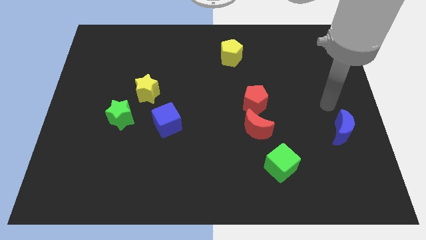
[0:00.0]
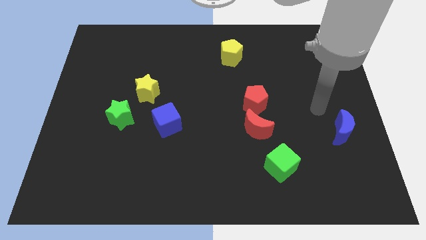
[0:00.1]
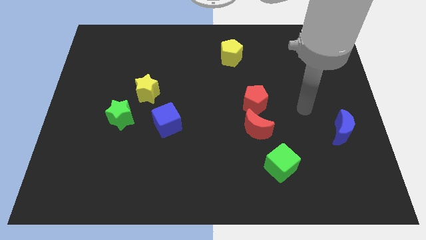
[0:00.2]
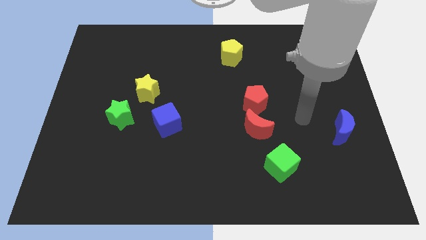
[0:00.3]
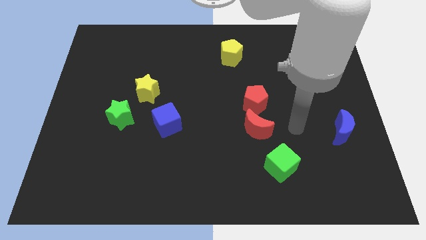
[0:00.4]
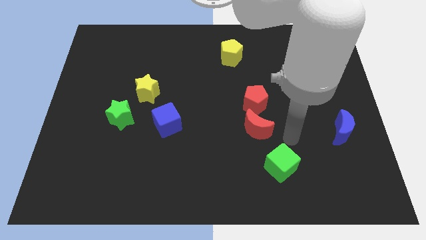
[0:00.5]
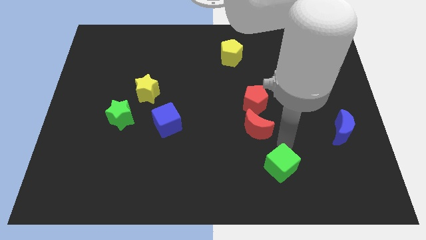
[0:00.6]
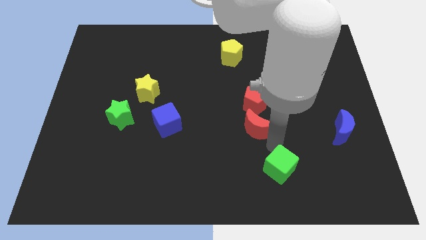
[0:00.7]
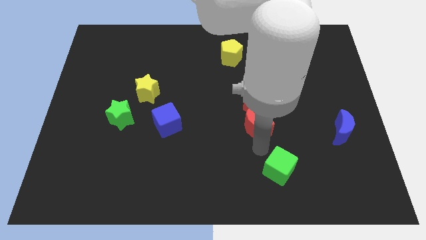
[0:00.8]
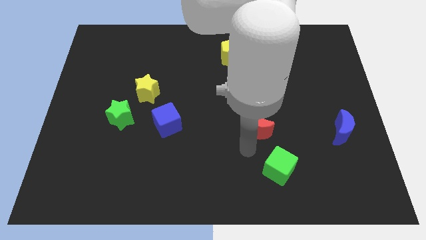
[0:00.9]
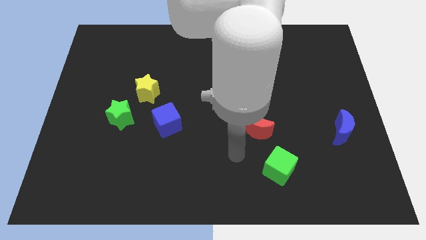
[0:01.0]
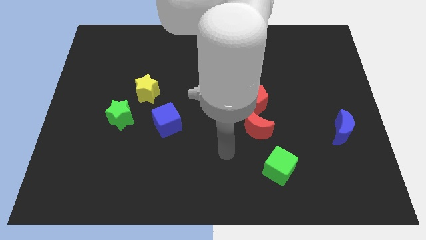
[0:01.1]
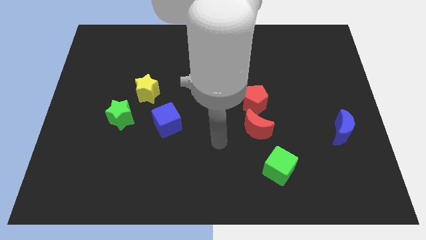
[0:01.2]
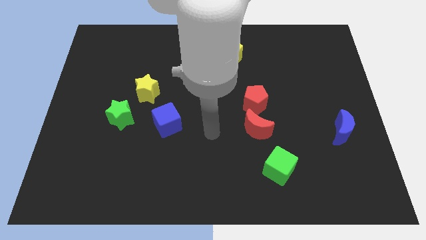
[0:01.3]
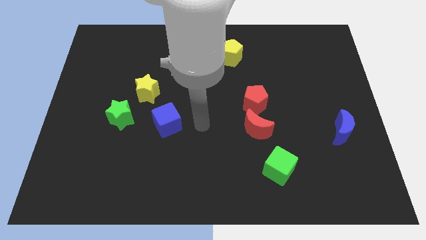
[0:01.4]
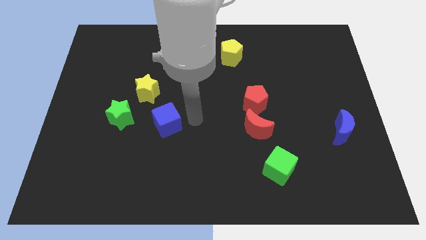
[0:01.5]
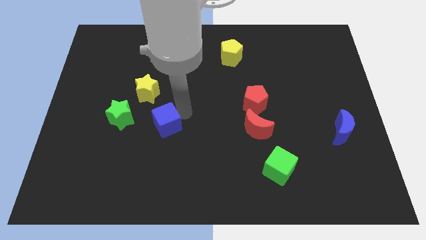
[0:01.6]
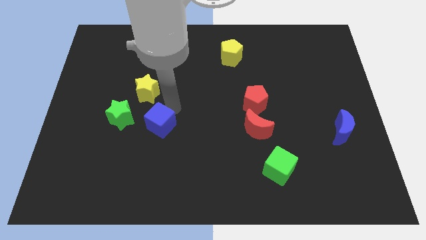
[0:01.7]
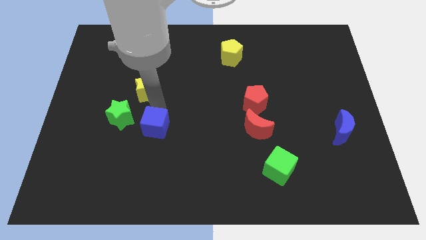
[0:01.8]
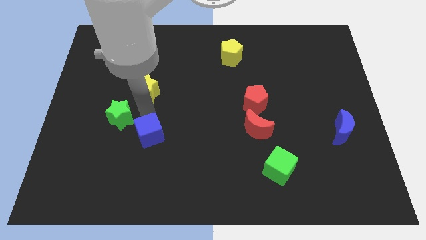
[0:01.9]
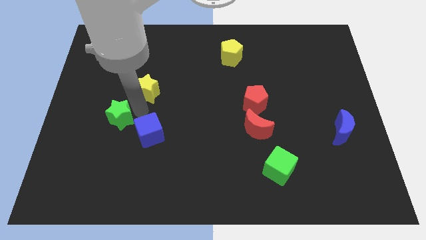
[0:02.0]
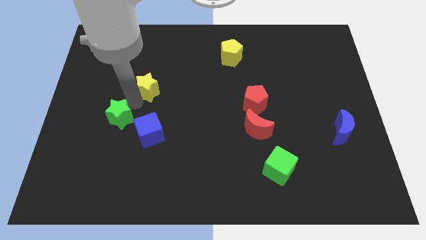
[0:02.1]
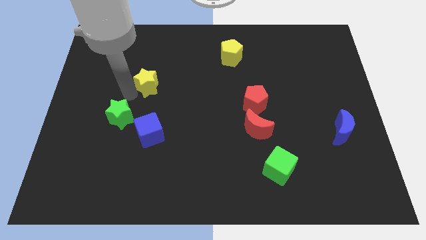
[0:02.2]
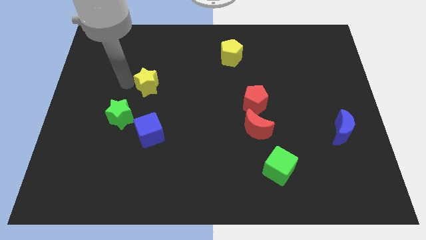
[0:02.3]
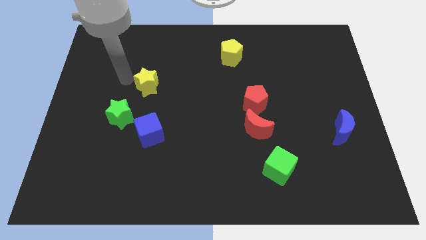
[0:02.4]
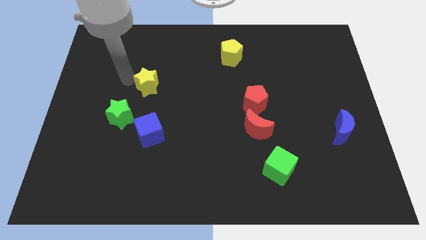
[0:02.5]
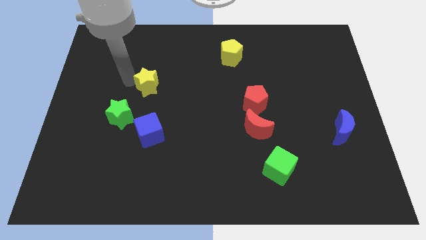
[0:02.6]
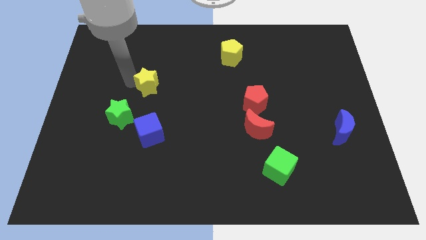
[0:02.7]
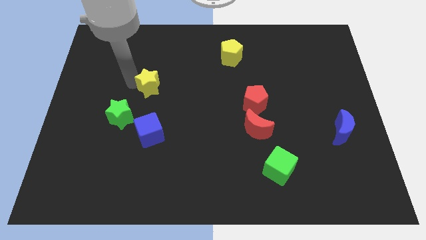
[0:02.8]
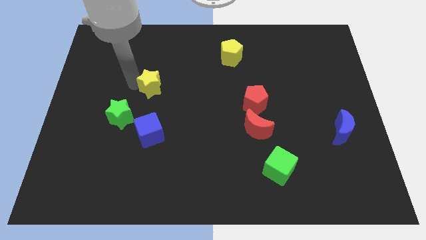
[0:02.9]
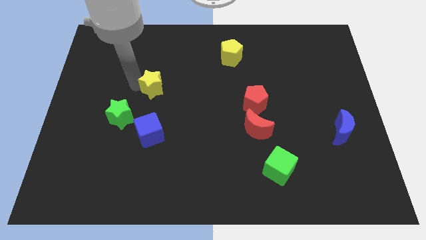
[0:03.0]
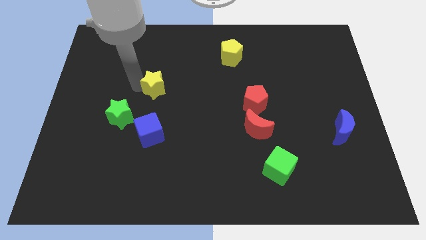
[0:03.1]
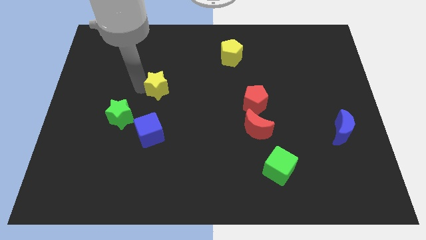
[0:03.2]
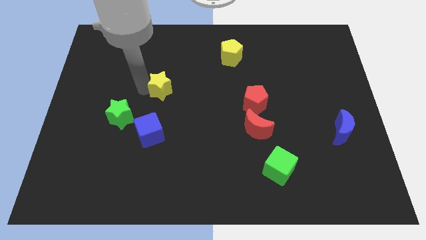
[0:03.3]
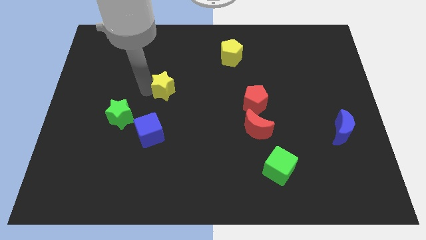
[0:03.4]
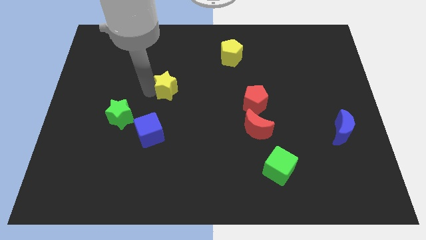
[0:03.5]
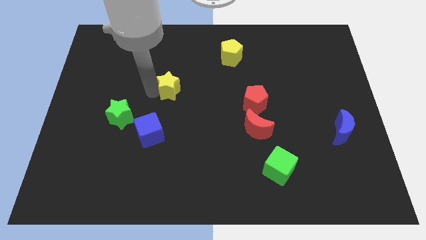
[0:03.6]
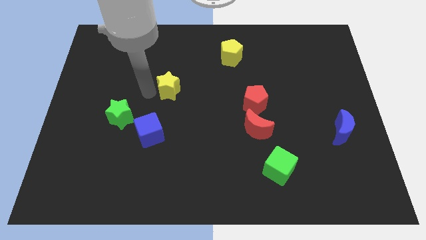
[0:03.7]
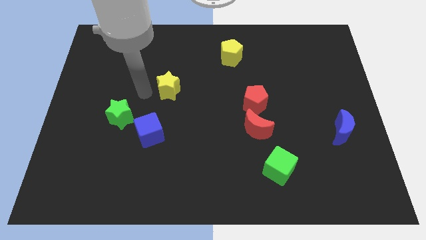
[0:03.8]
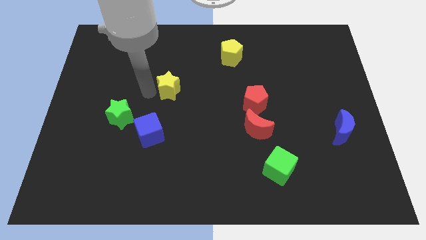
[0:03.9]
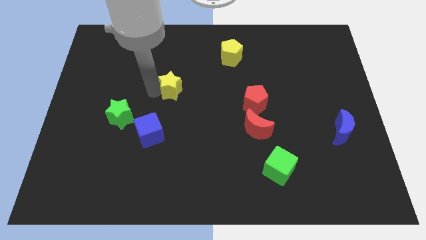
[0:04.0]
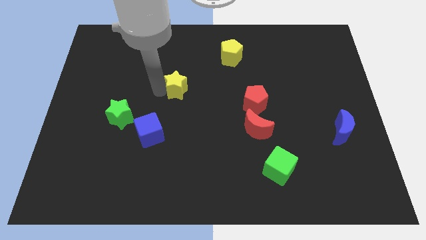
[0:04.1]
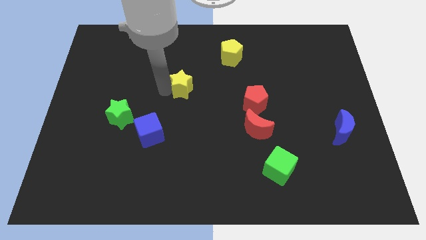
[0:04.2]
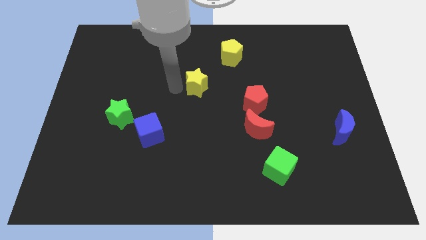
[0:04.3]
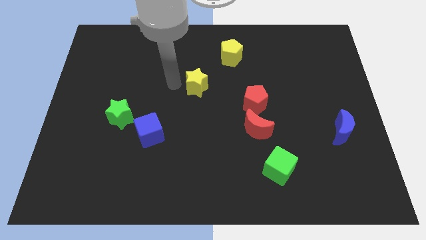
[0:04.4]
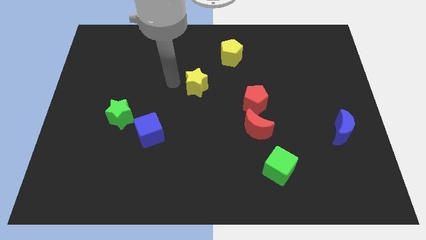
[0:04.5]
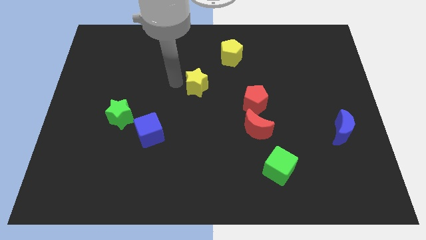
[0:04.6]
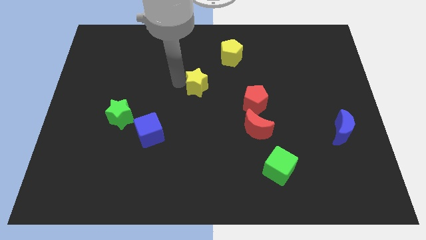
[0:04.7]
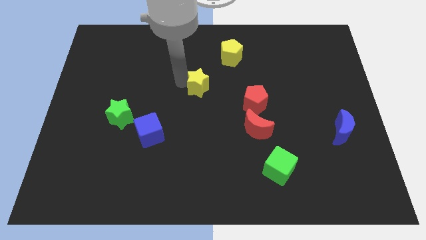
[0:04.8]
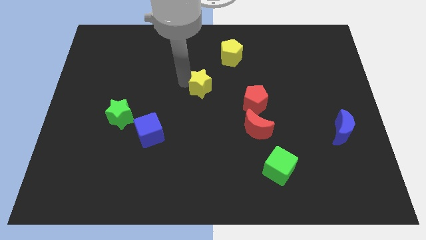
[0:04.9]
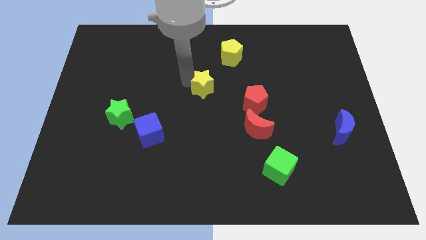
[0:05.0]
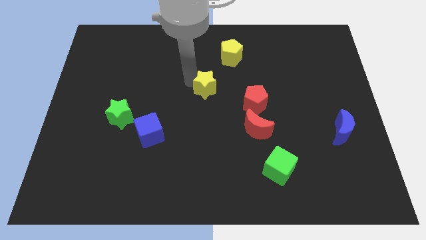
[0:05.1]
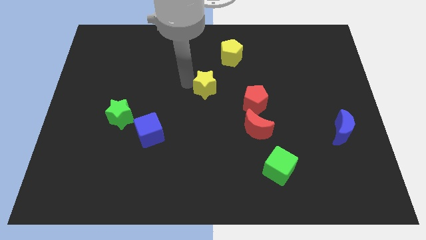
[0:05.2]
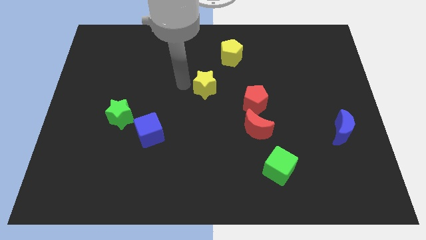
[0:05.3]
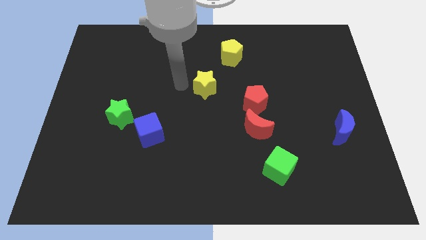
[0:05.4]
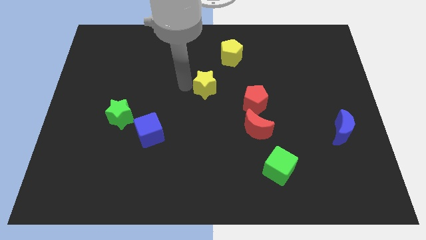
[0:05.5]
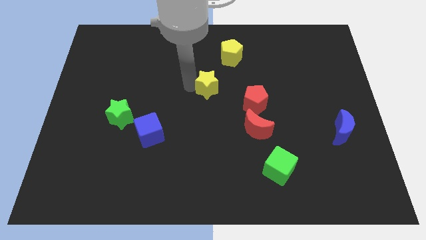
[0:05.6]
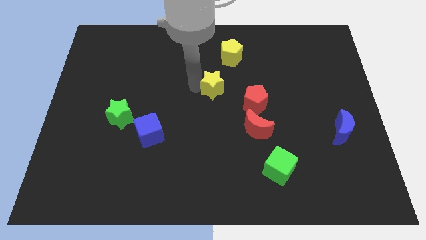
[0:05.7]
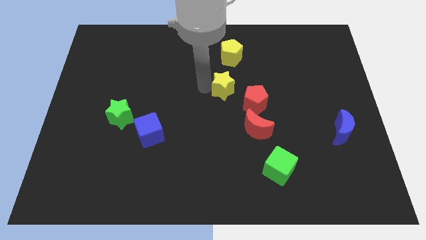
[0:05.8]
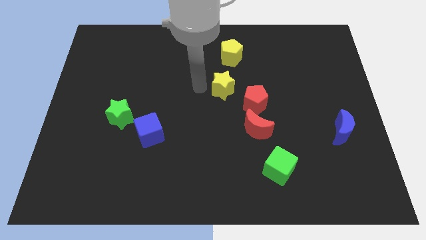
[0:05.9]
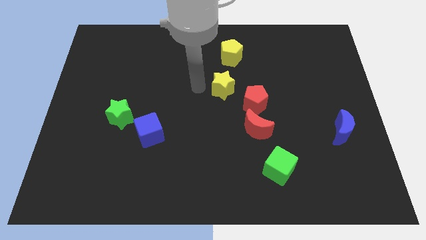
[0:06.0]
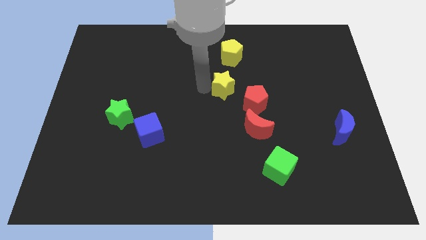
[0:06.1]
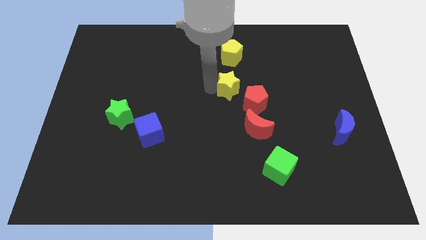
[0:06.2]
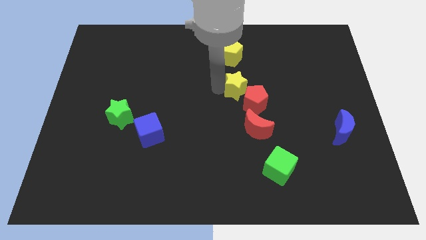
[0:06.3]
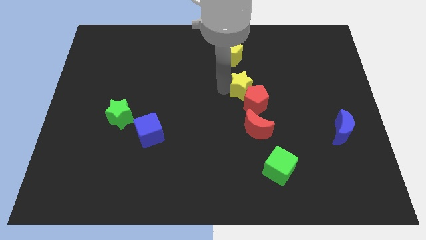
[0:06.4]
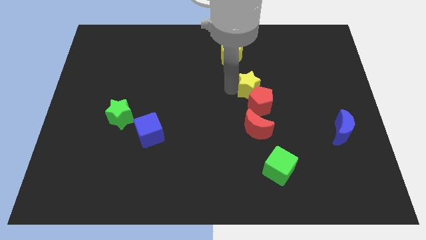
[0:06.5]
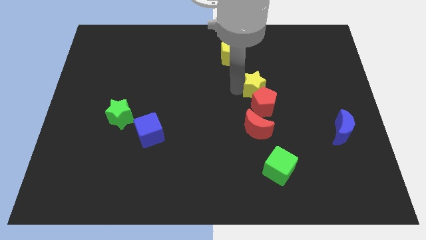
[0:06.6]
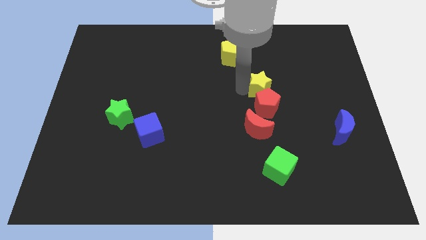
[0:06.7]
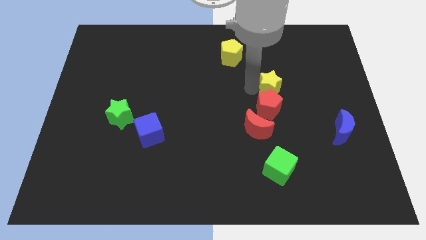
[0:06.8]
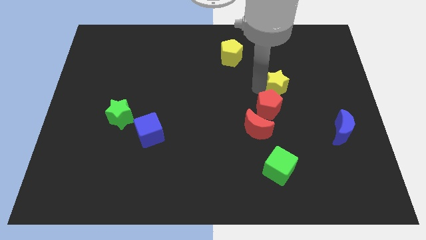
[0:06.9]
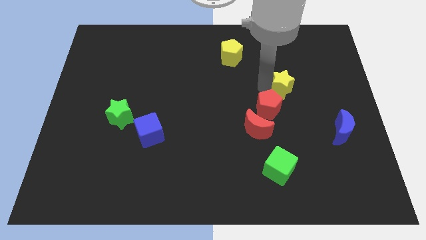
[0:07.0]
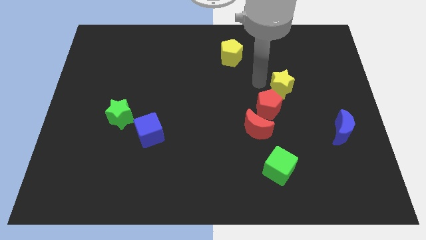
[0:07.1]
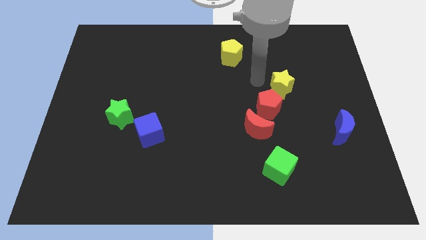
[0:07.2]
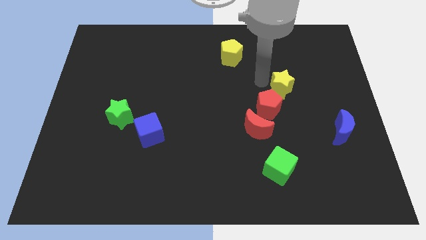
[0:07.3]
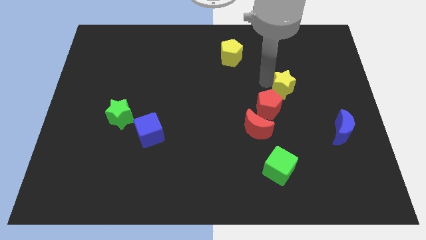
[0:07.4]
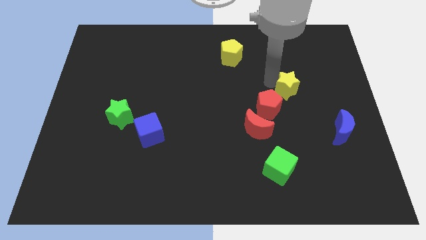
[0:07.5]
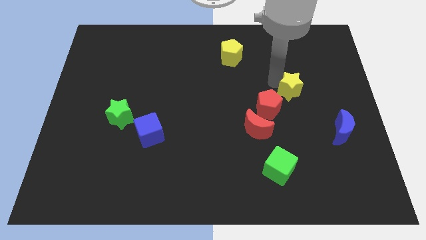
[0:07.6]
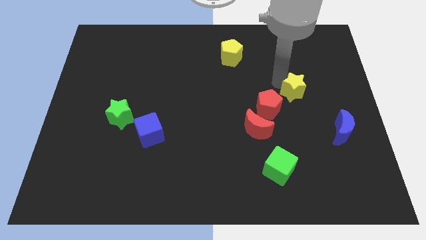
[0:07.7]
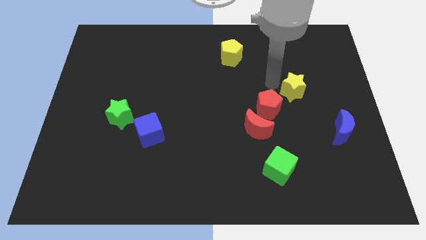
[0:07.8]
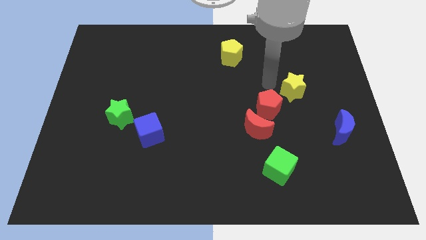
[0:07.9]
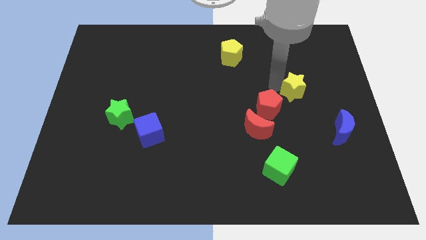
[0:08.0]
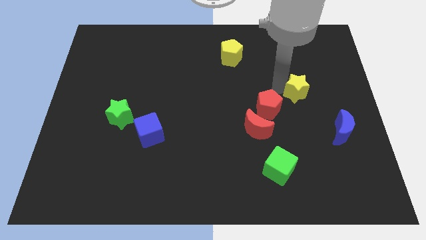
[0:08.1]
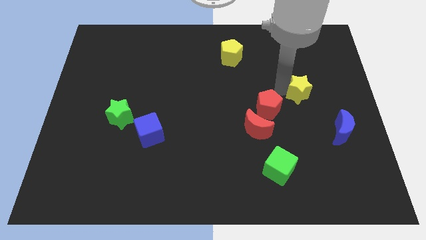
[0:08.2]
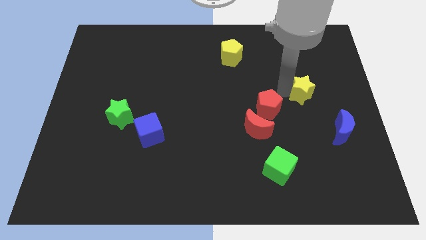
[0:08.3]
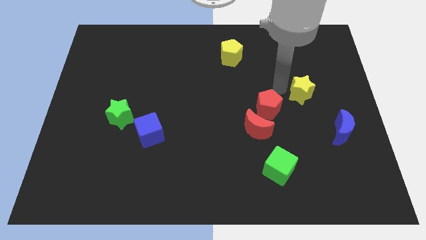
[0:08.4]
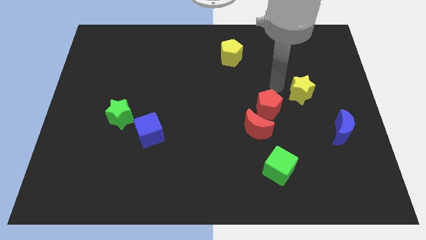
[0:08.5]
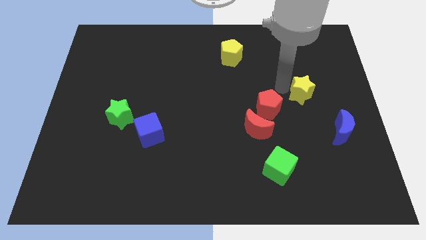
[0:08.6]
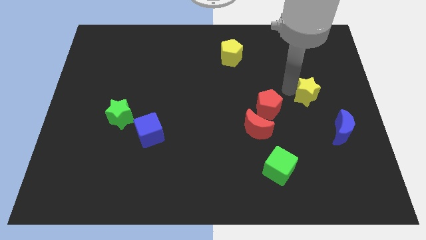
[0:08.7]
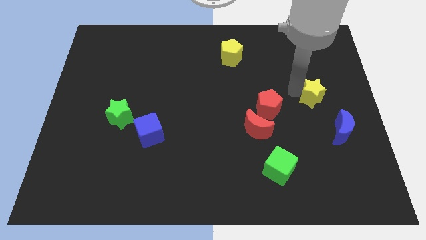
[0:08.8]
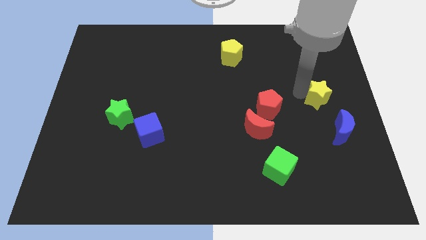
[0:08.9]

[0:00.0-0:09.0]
push the yellow star to the right side of the board
